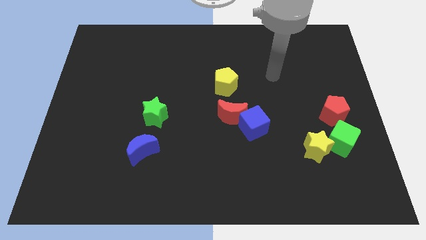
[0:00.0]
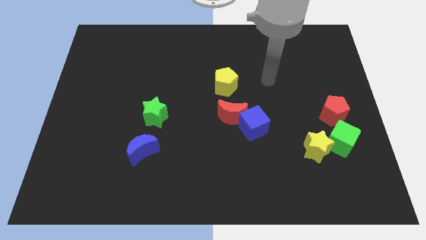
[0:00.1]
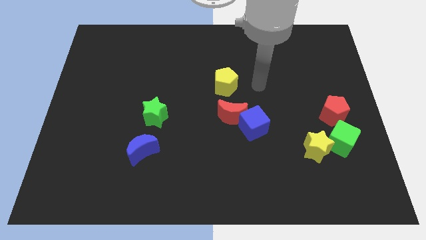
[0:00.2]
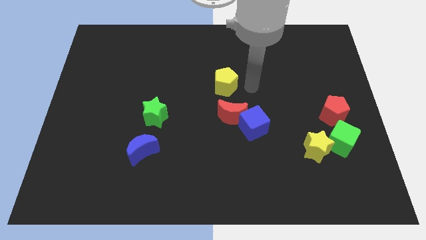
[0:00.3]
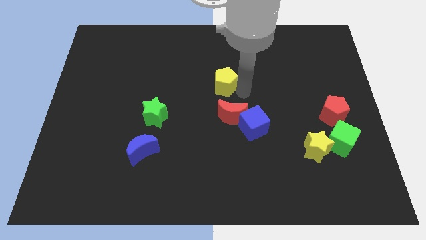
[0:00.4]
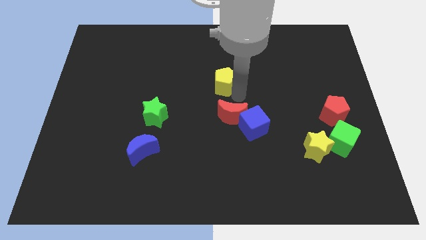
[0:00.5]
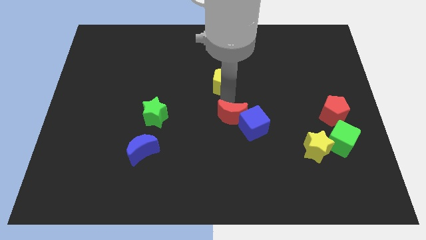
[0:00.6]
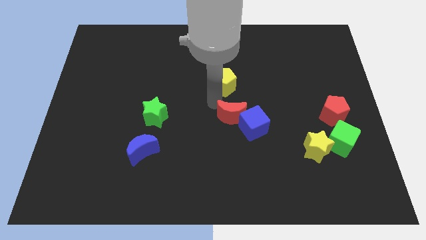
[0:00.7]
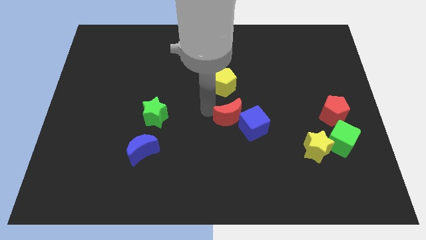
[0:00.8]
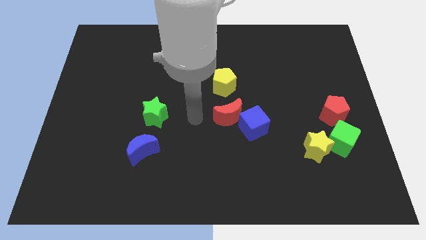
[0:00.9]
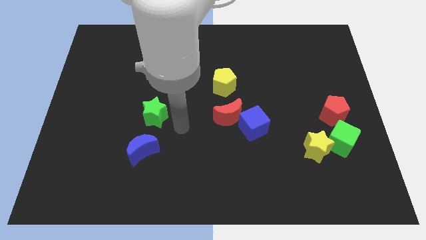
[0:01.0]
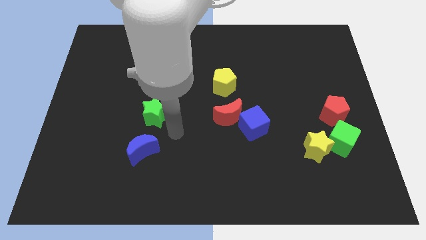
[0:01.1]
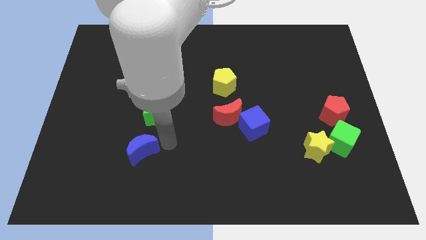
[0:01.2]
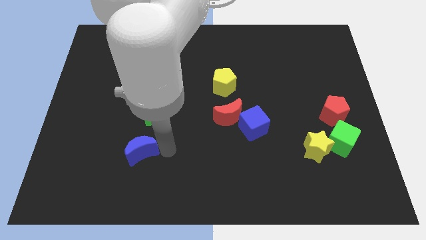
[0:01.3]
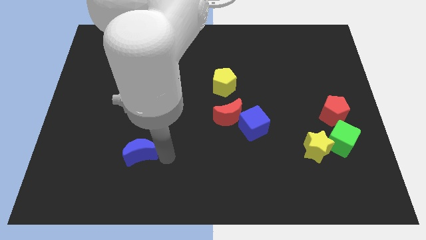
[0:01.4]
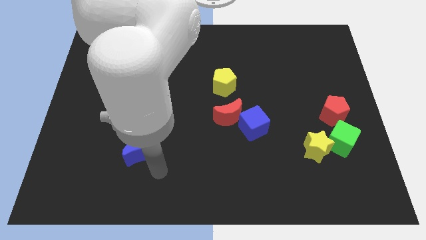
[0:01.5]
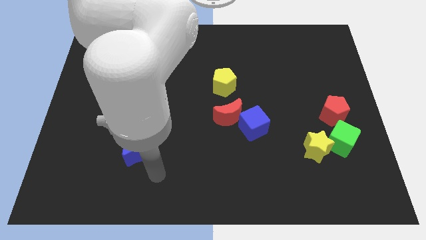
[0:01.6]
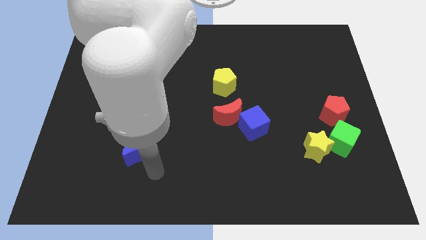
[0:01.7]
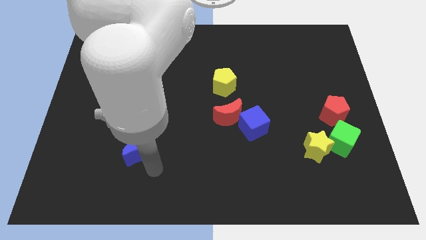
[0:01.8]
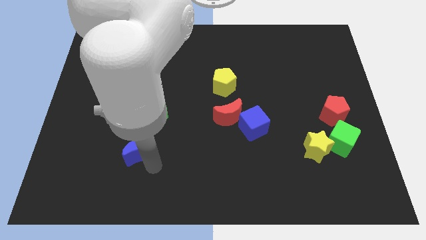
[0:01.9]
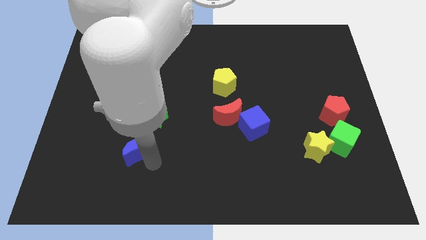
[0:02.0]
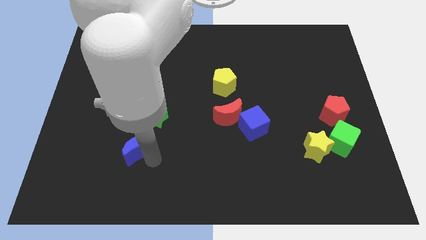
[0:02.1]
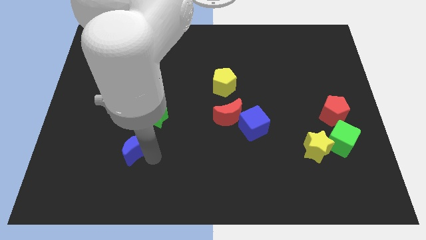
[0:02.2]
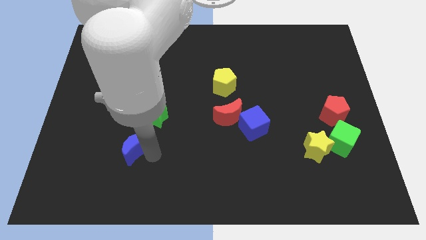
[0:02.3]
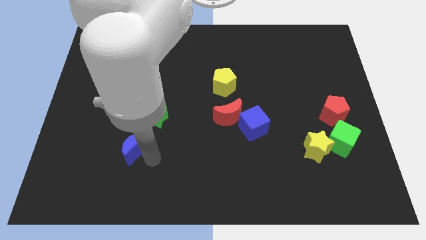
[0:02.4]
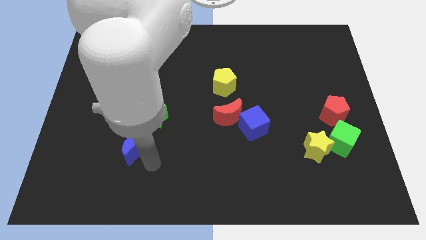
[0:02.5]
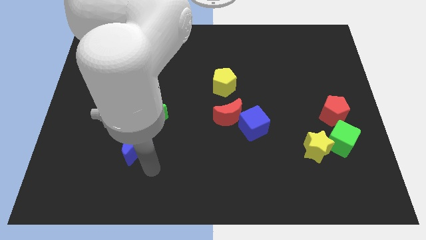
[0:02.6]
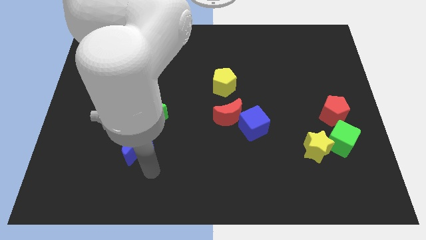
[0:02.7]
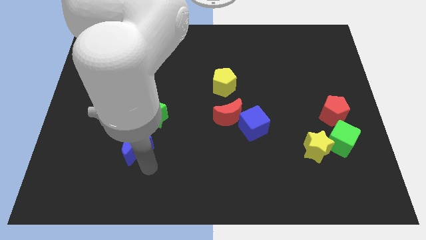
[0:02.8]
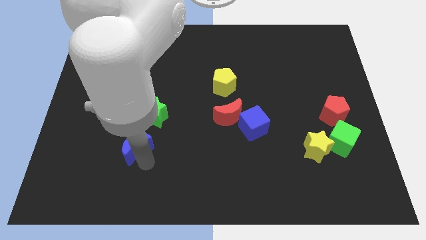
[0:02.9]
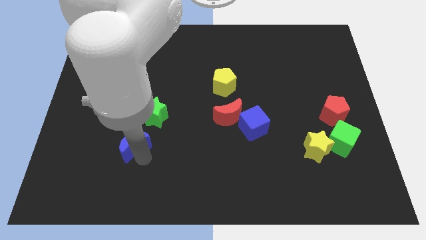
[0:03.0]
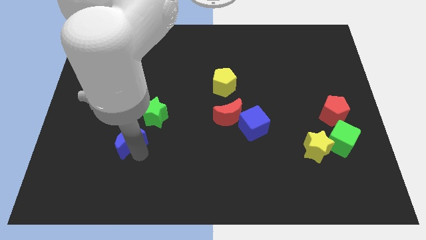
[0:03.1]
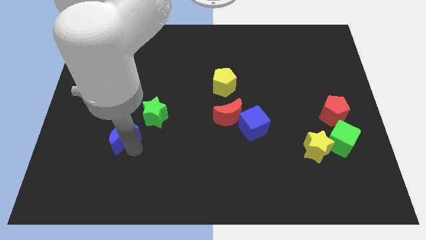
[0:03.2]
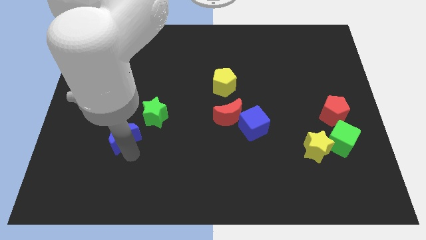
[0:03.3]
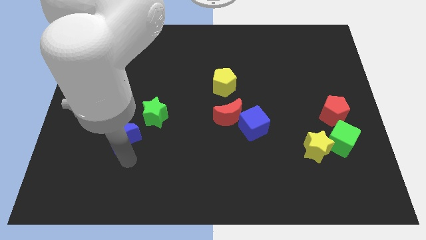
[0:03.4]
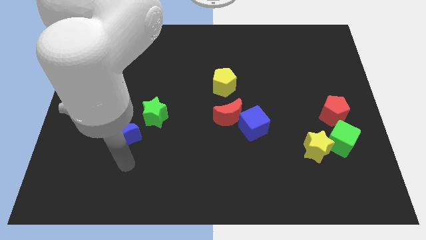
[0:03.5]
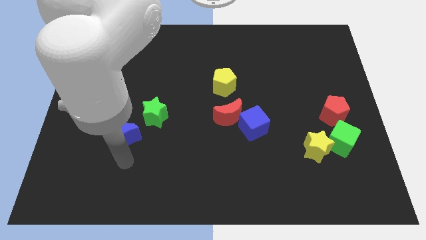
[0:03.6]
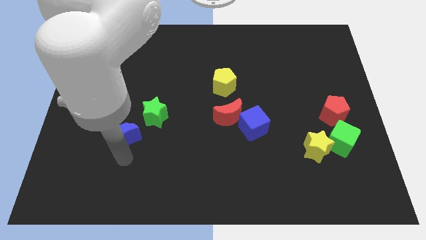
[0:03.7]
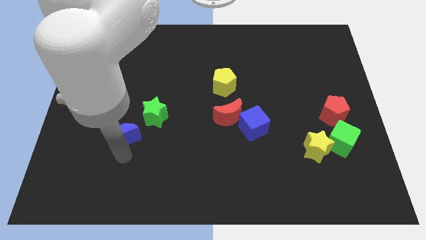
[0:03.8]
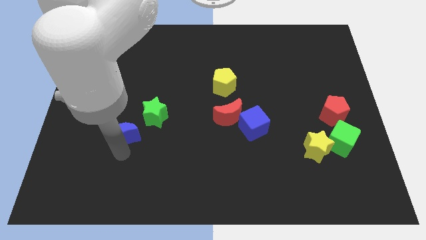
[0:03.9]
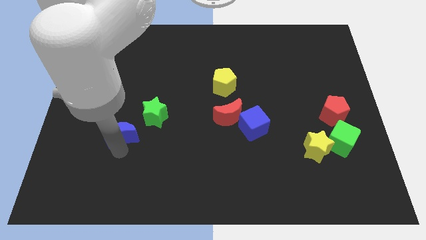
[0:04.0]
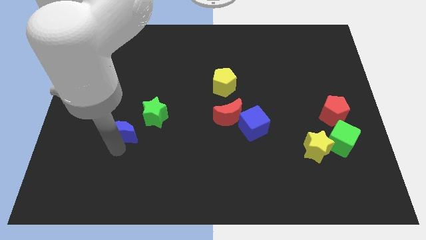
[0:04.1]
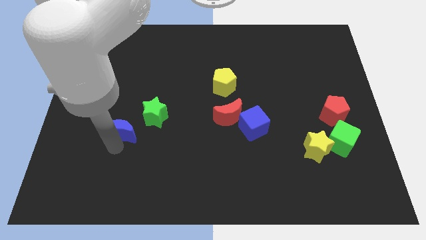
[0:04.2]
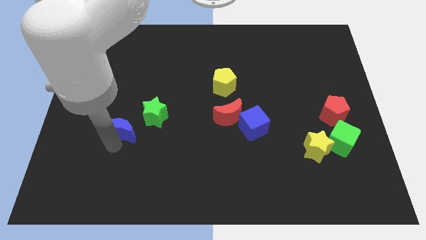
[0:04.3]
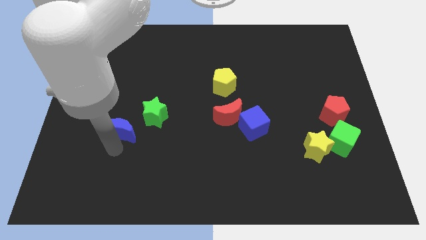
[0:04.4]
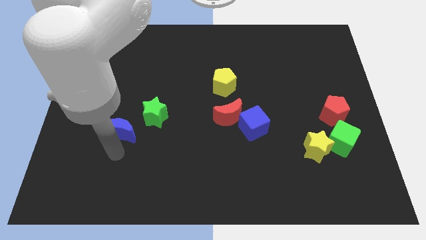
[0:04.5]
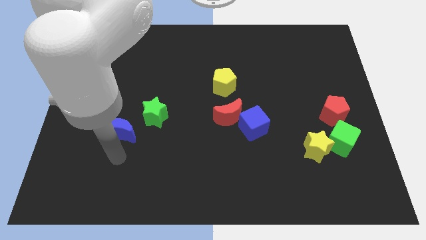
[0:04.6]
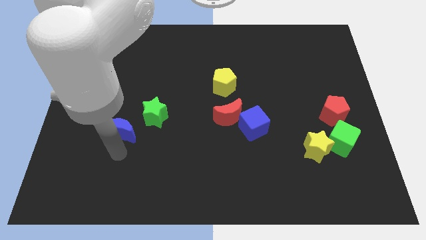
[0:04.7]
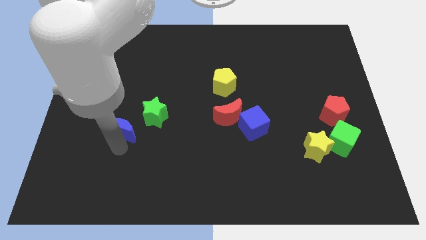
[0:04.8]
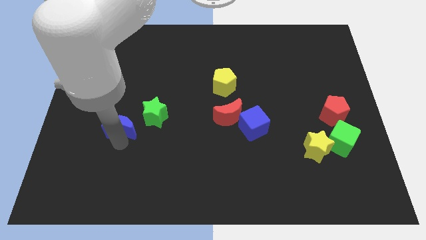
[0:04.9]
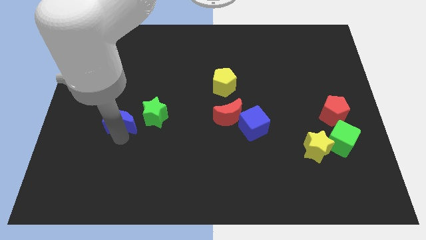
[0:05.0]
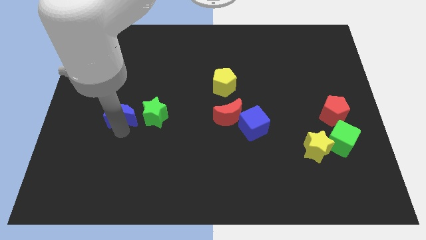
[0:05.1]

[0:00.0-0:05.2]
slightly slide the blue moon up

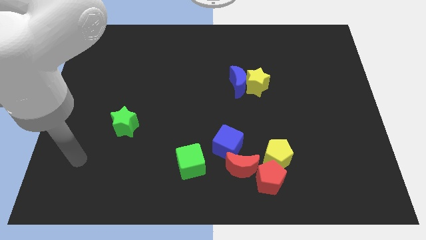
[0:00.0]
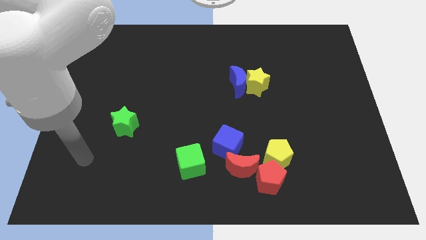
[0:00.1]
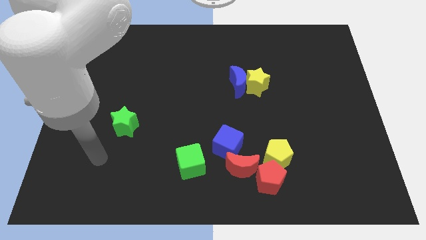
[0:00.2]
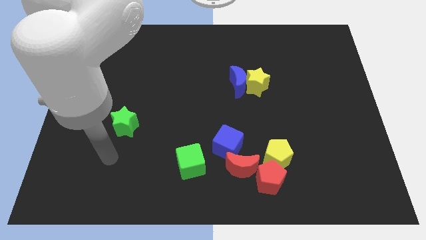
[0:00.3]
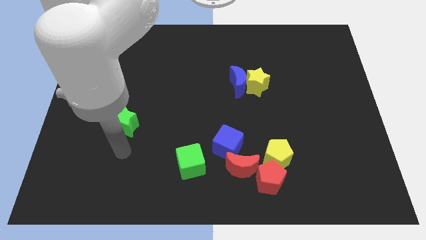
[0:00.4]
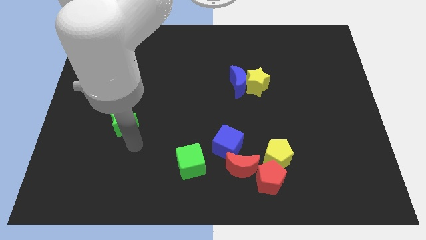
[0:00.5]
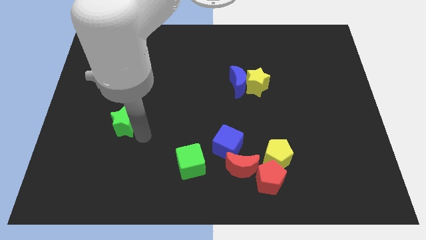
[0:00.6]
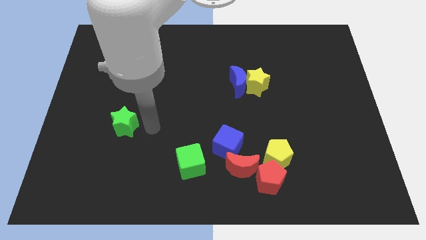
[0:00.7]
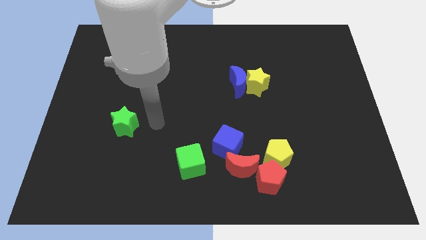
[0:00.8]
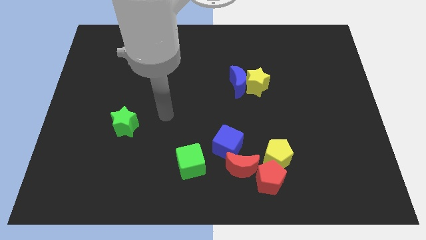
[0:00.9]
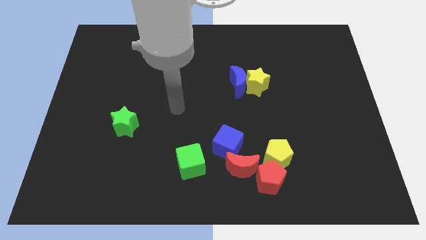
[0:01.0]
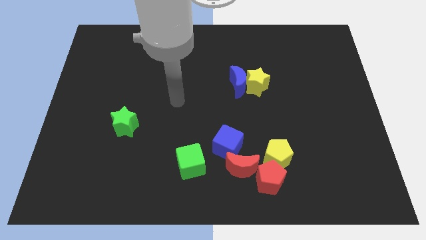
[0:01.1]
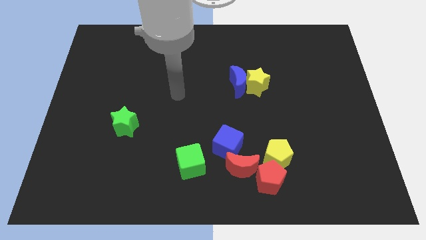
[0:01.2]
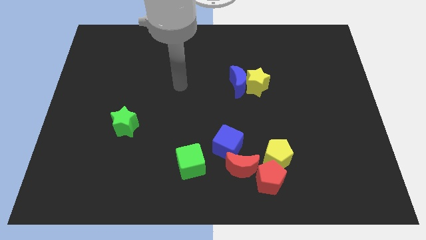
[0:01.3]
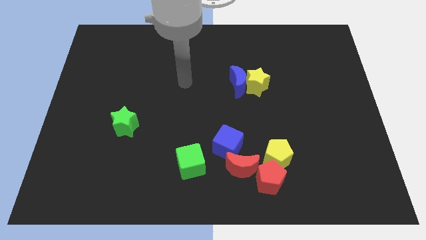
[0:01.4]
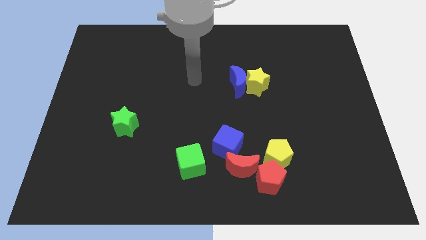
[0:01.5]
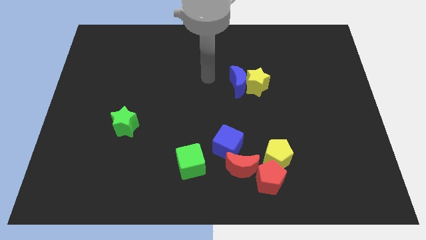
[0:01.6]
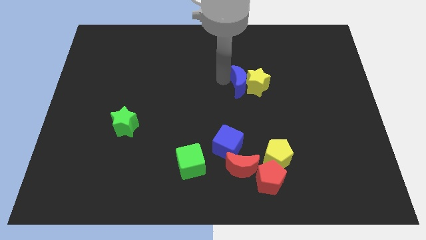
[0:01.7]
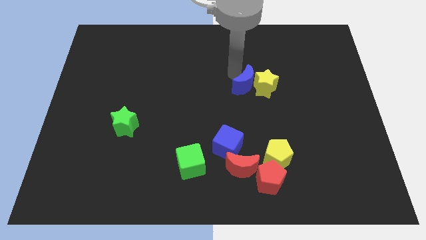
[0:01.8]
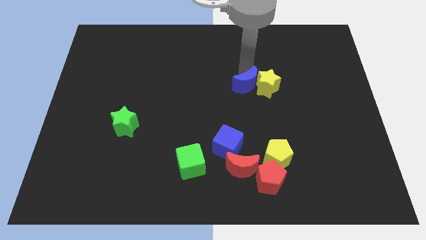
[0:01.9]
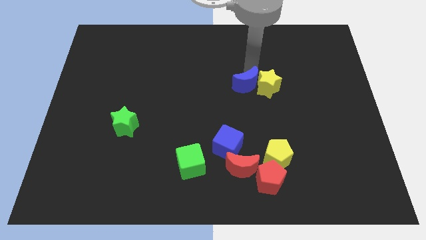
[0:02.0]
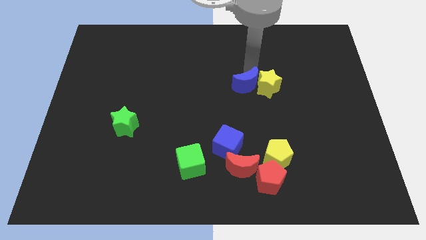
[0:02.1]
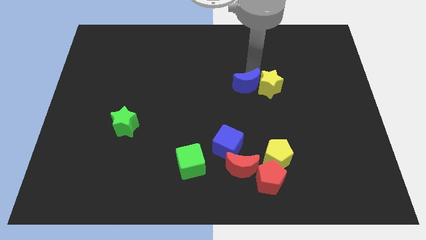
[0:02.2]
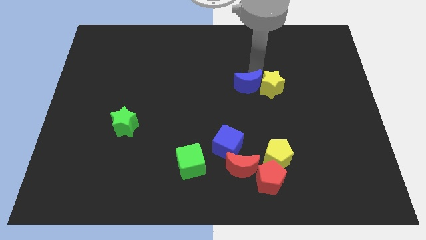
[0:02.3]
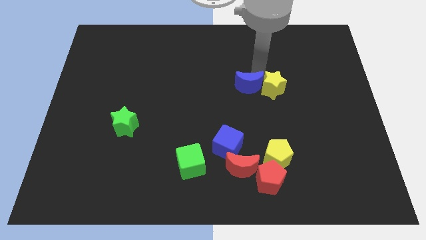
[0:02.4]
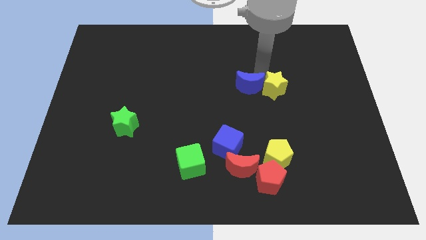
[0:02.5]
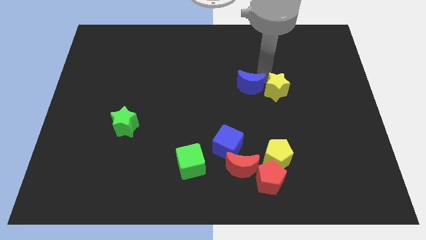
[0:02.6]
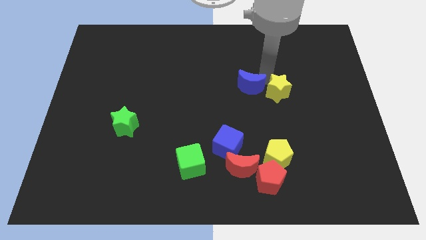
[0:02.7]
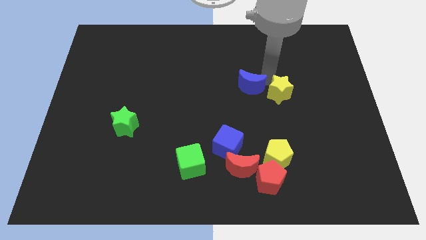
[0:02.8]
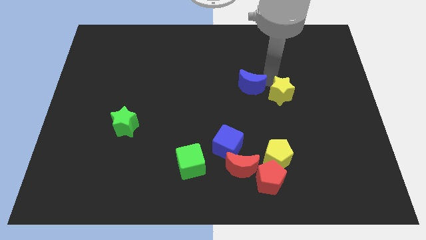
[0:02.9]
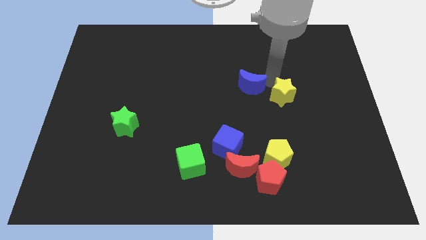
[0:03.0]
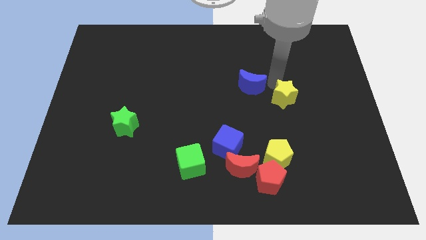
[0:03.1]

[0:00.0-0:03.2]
slightly slide the yellow star downwards and right diagonally
